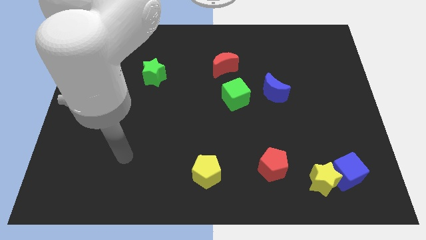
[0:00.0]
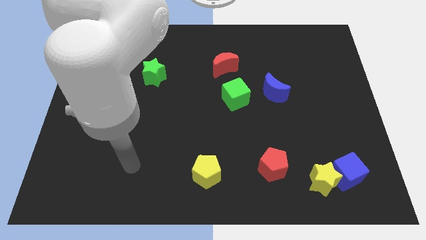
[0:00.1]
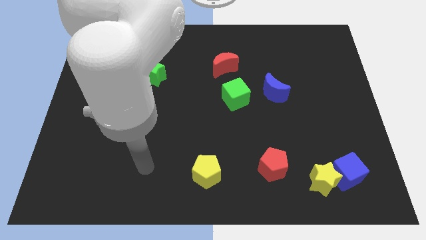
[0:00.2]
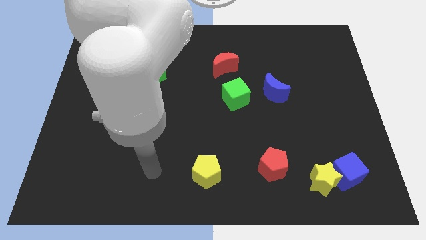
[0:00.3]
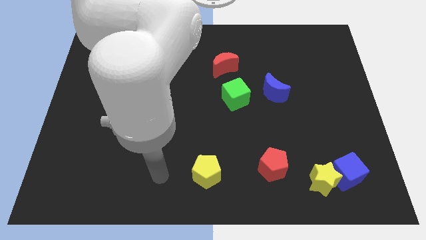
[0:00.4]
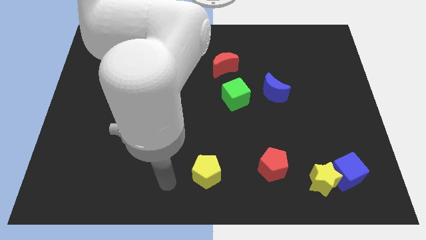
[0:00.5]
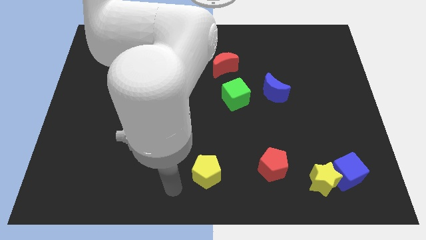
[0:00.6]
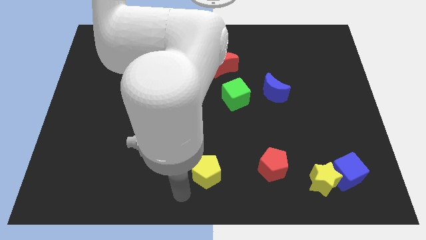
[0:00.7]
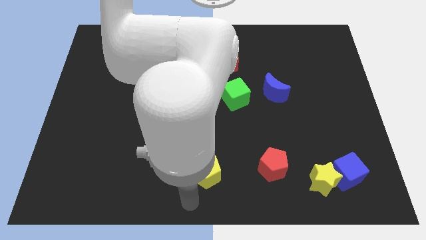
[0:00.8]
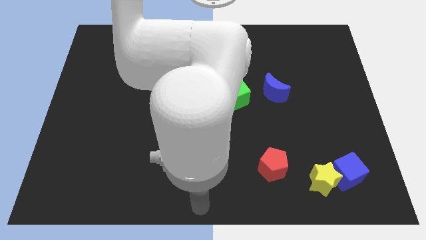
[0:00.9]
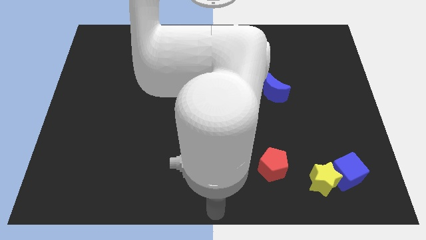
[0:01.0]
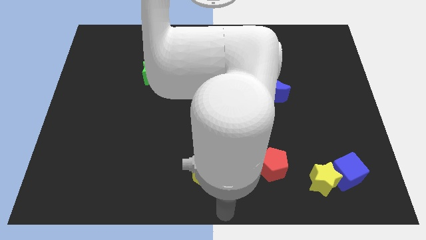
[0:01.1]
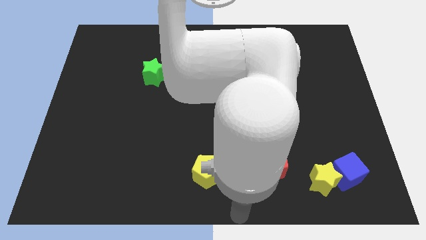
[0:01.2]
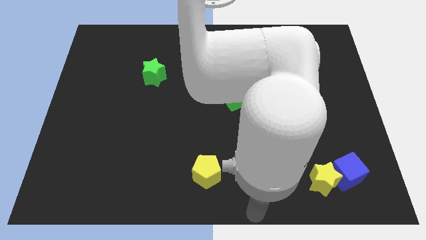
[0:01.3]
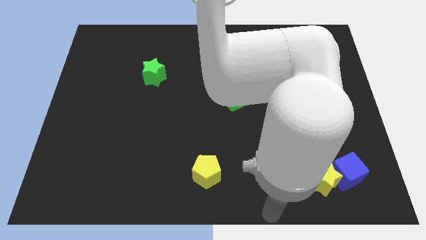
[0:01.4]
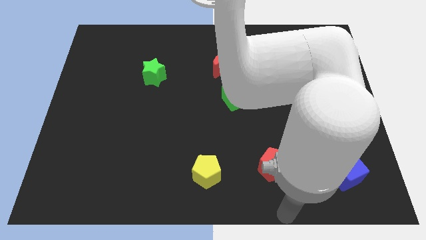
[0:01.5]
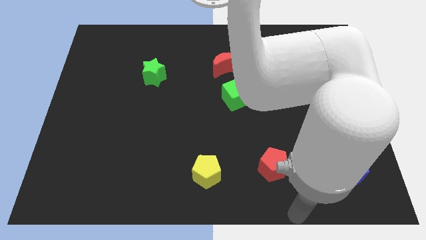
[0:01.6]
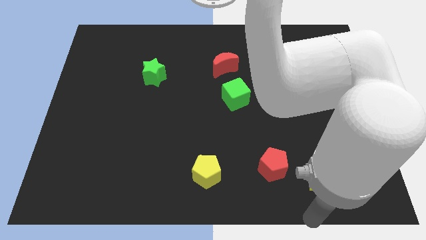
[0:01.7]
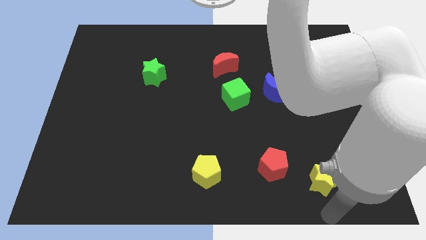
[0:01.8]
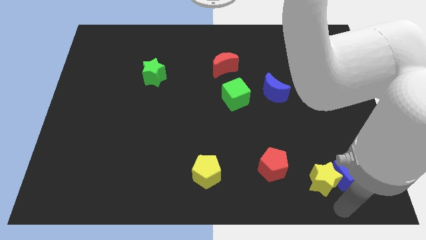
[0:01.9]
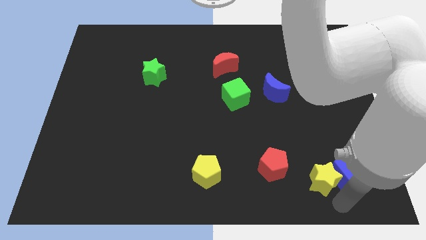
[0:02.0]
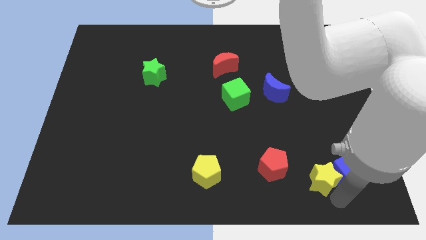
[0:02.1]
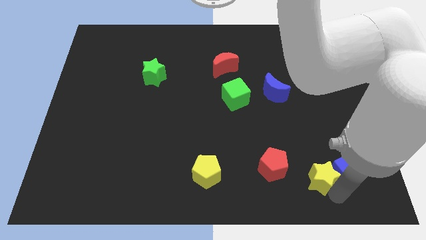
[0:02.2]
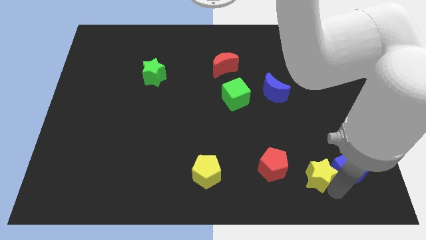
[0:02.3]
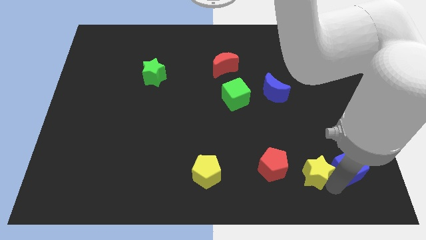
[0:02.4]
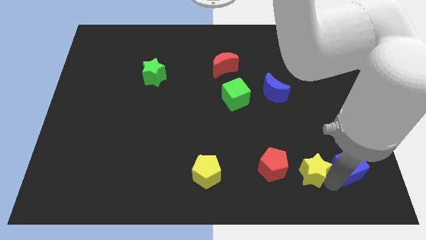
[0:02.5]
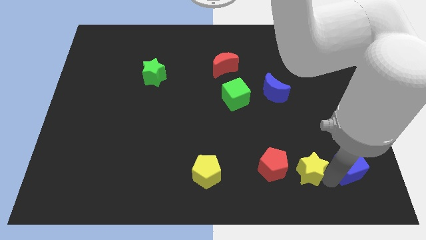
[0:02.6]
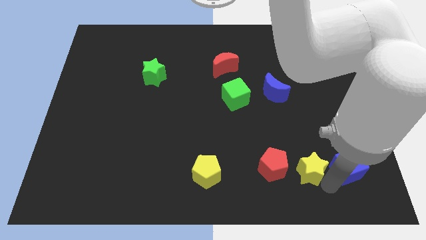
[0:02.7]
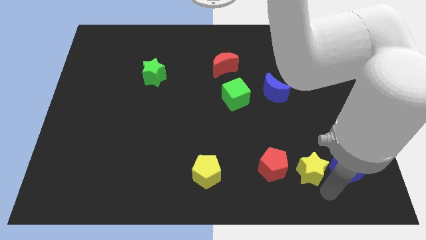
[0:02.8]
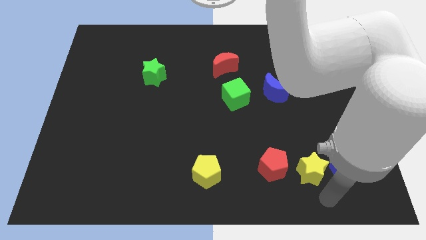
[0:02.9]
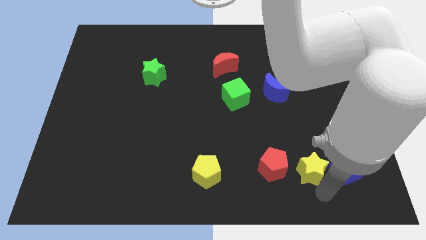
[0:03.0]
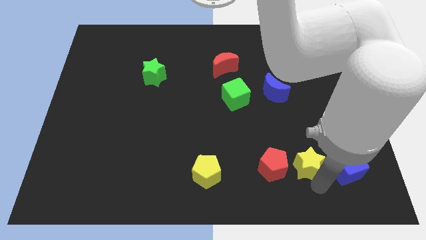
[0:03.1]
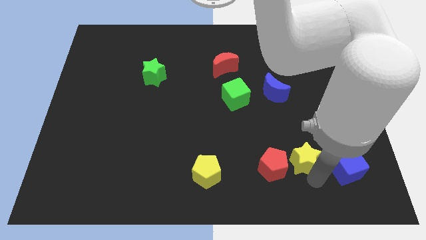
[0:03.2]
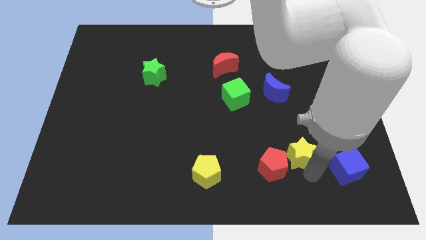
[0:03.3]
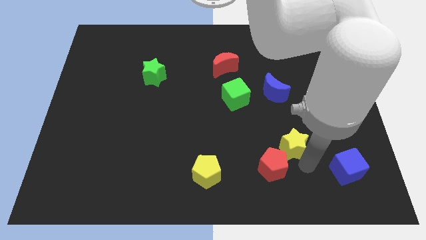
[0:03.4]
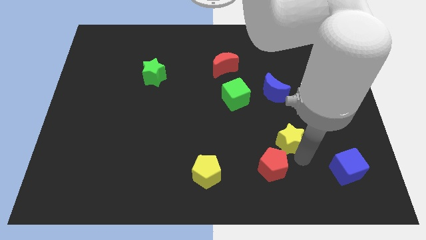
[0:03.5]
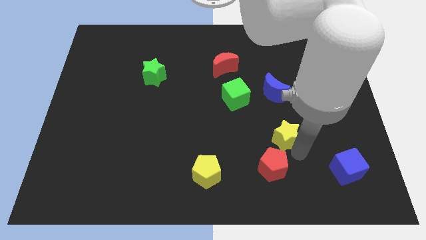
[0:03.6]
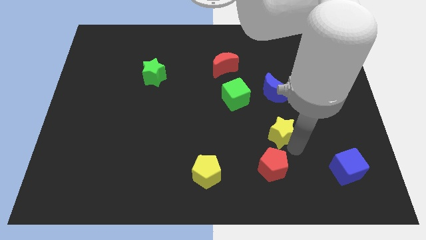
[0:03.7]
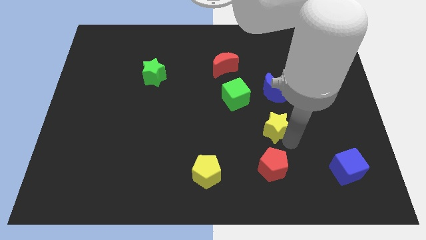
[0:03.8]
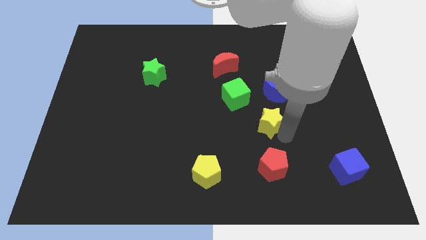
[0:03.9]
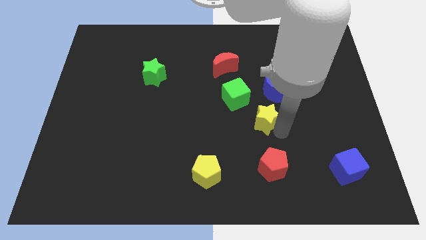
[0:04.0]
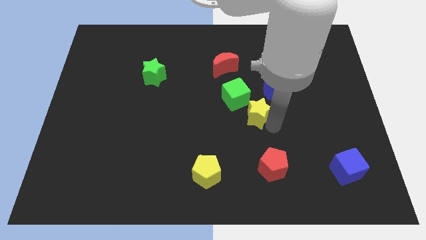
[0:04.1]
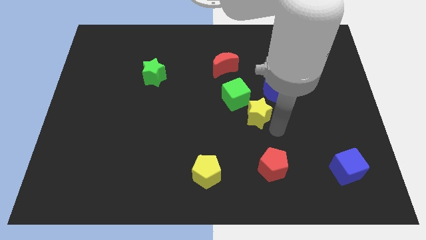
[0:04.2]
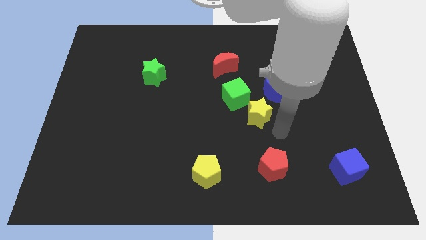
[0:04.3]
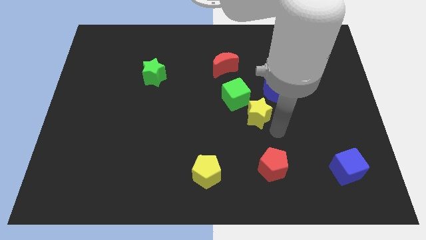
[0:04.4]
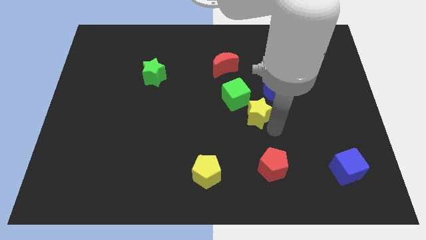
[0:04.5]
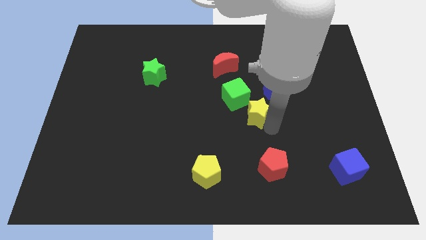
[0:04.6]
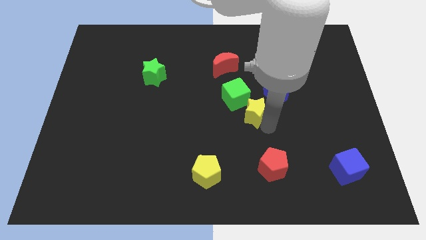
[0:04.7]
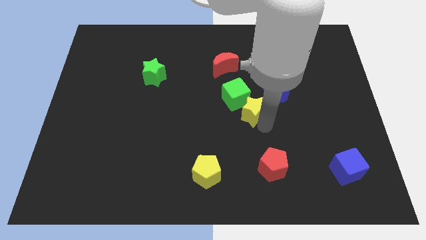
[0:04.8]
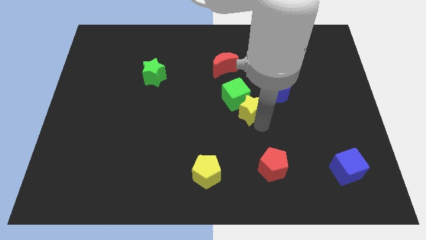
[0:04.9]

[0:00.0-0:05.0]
slide the yellow star towards the green cube

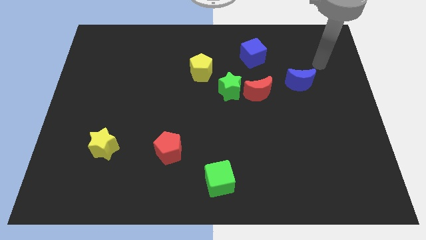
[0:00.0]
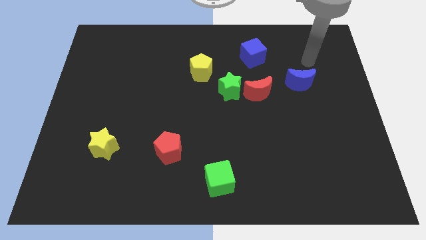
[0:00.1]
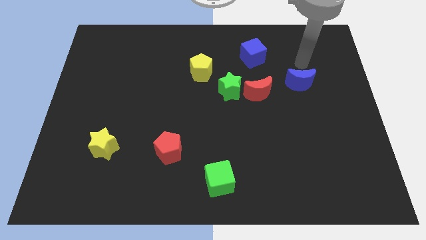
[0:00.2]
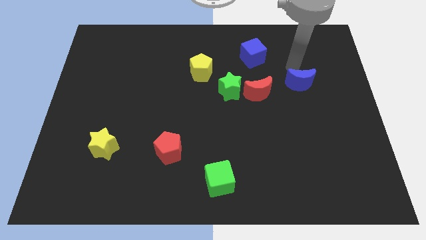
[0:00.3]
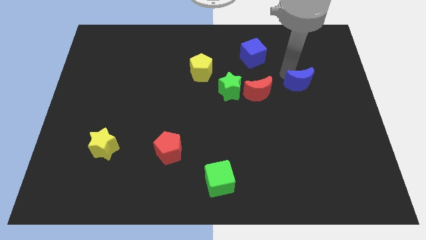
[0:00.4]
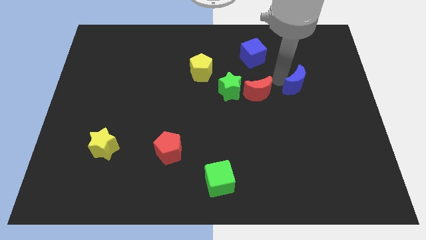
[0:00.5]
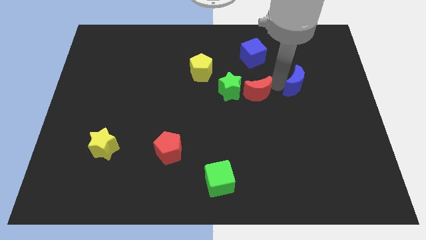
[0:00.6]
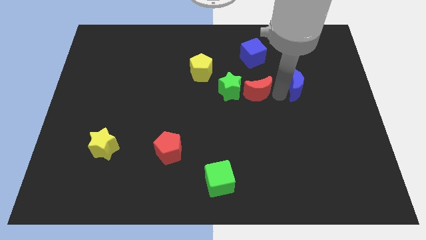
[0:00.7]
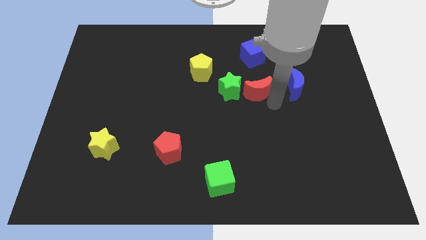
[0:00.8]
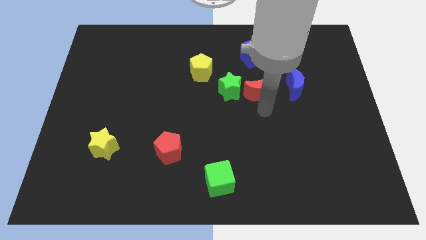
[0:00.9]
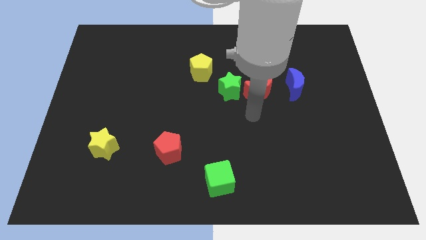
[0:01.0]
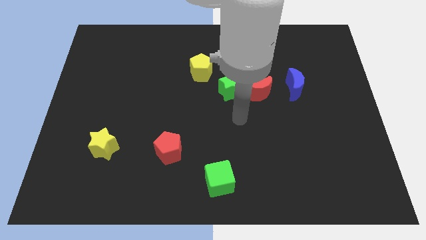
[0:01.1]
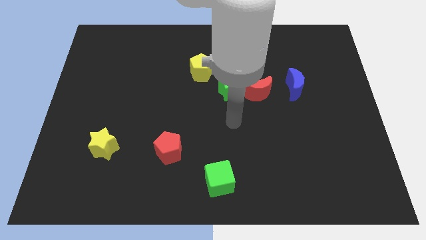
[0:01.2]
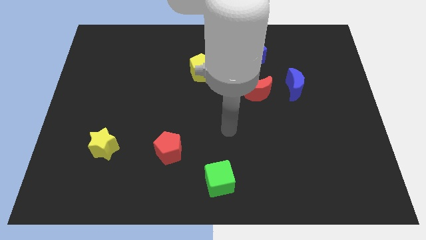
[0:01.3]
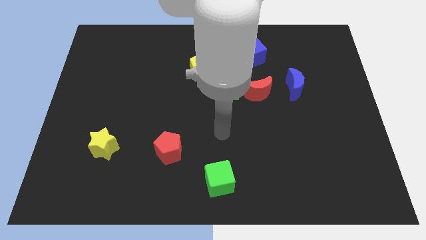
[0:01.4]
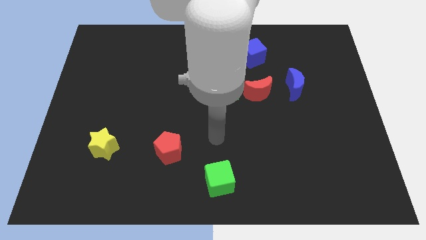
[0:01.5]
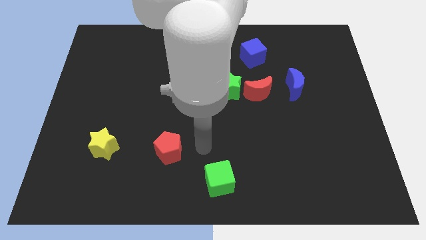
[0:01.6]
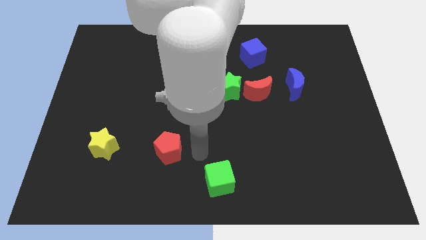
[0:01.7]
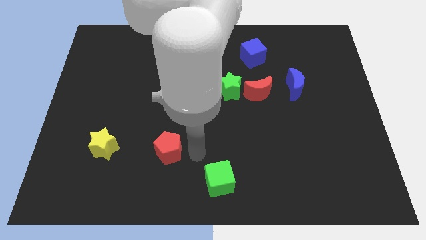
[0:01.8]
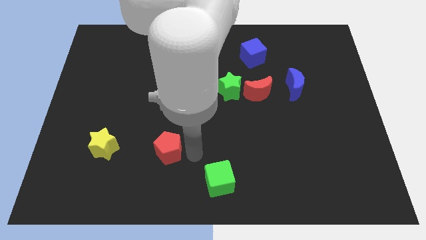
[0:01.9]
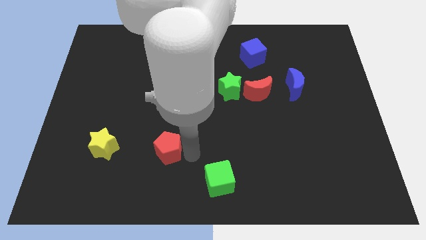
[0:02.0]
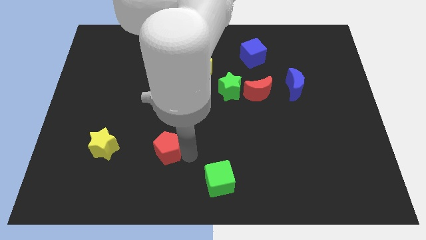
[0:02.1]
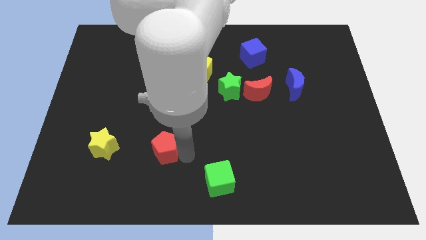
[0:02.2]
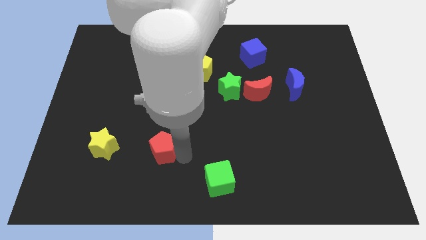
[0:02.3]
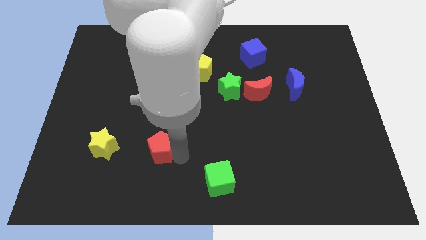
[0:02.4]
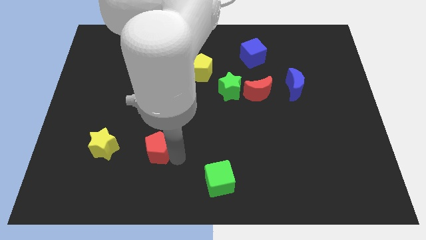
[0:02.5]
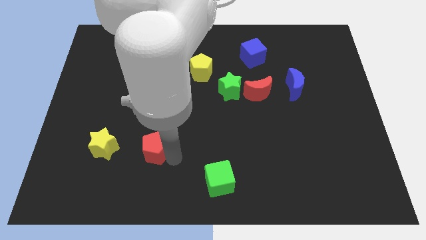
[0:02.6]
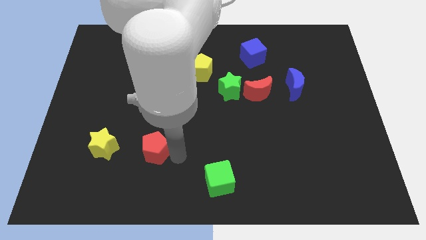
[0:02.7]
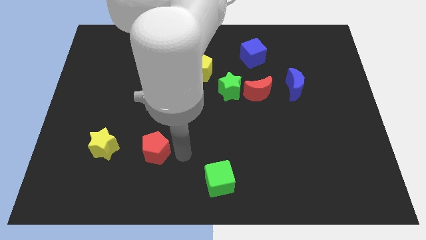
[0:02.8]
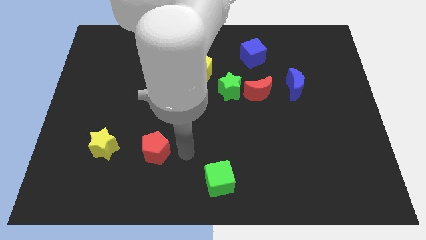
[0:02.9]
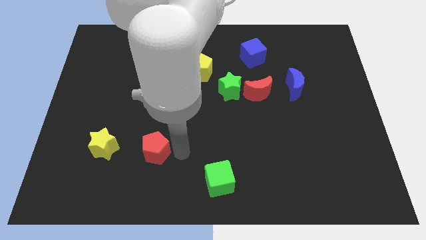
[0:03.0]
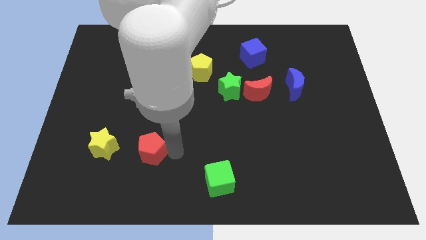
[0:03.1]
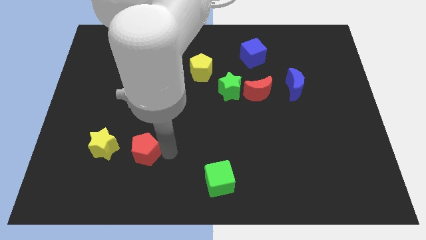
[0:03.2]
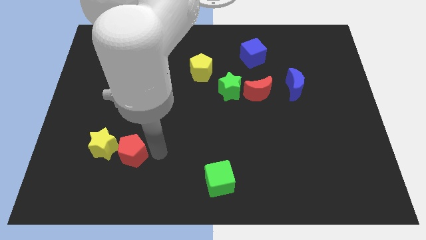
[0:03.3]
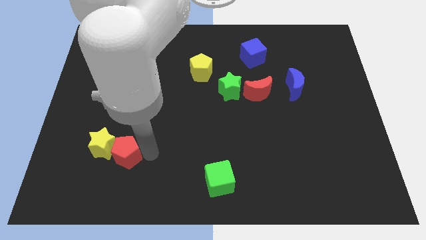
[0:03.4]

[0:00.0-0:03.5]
put the red pentagon to the yellow star
